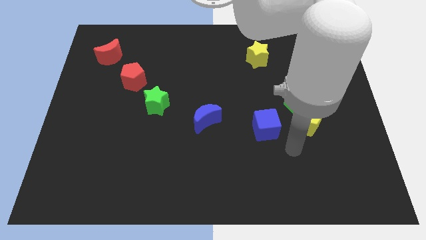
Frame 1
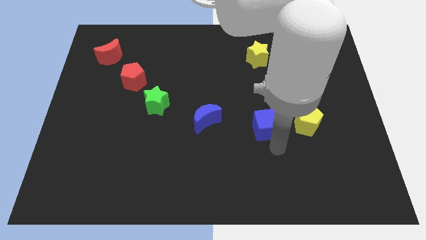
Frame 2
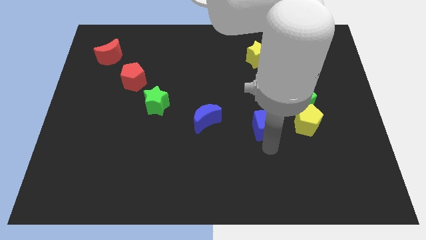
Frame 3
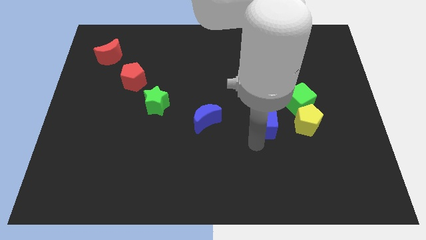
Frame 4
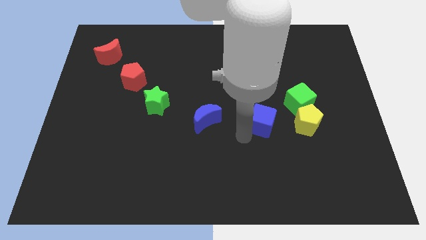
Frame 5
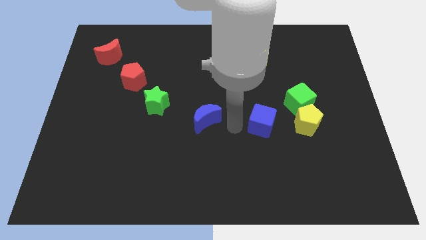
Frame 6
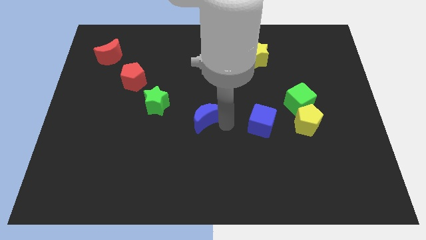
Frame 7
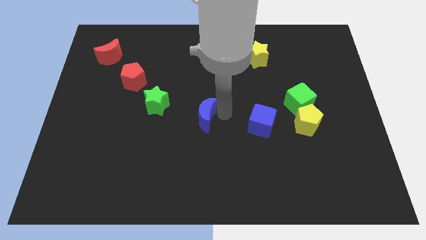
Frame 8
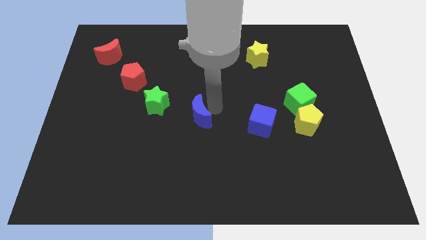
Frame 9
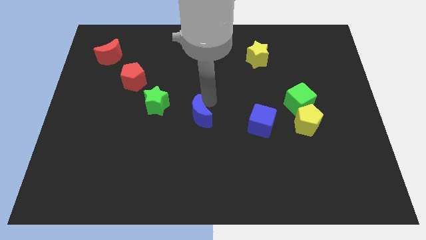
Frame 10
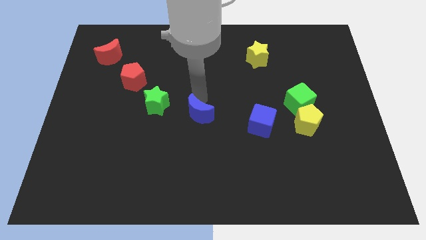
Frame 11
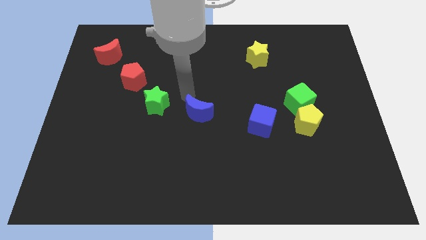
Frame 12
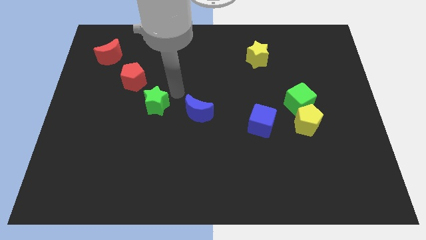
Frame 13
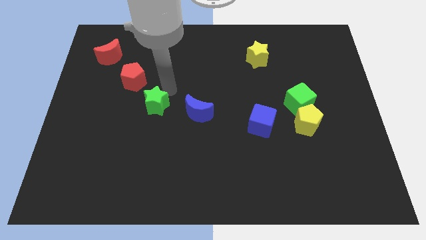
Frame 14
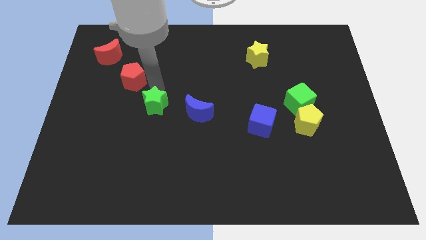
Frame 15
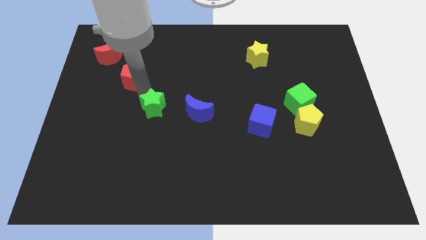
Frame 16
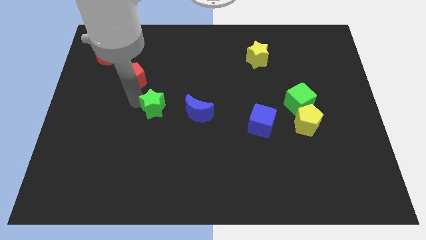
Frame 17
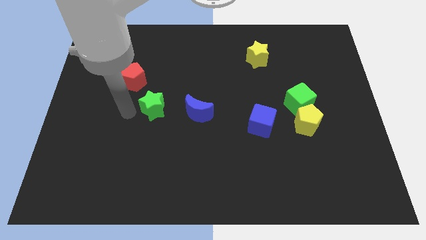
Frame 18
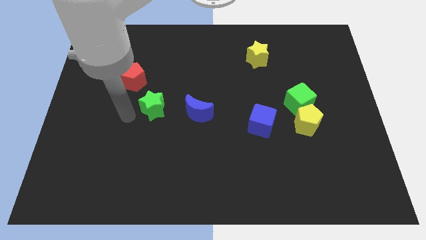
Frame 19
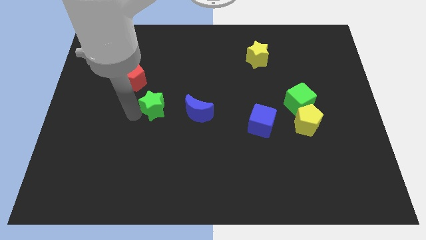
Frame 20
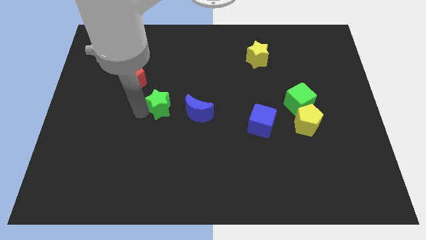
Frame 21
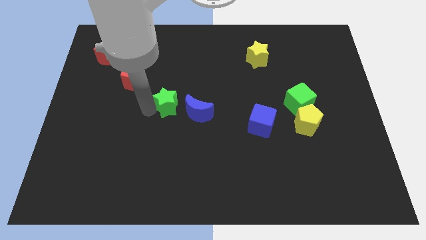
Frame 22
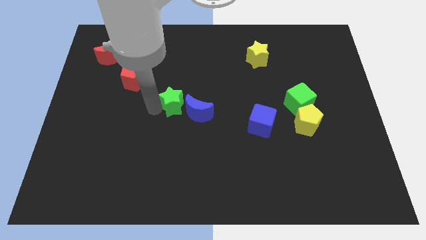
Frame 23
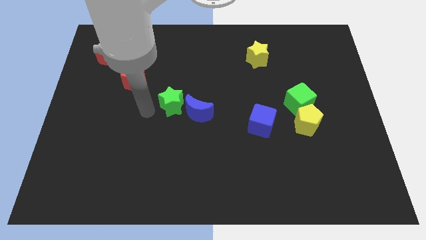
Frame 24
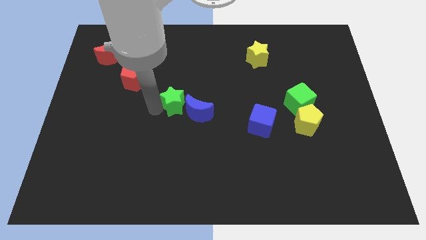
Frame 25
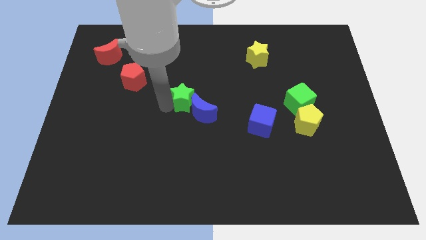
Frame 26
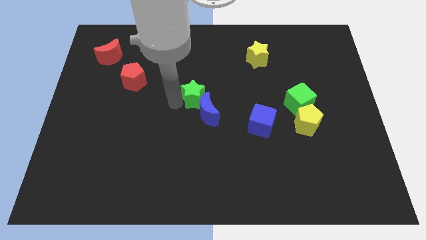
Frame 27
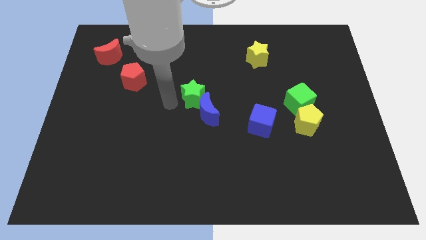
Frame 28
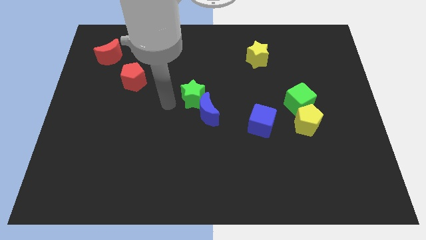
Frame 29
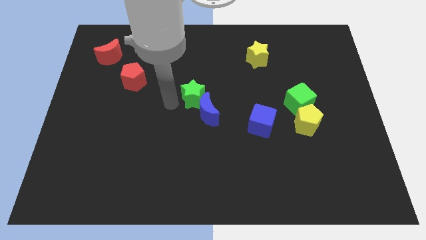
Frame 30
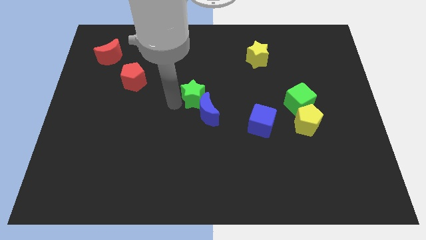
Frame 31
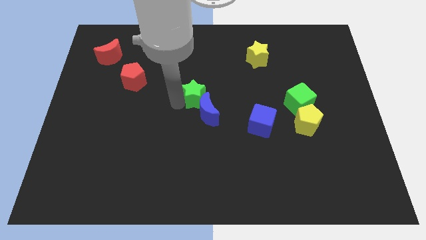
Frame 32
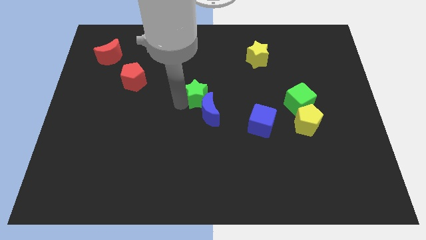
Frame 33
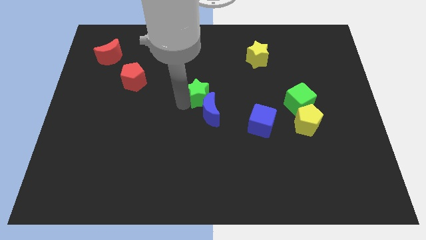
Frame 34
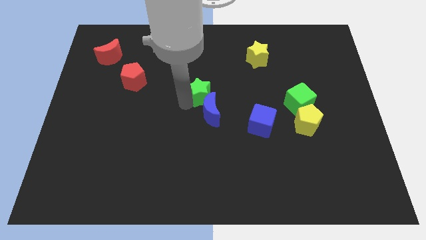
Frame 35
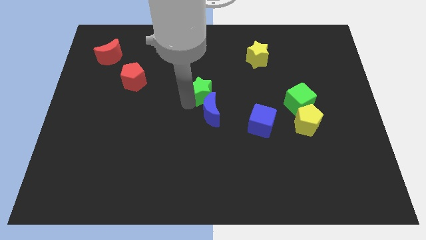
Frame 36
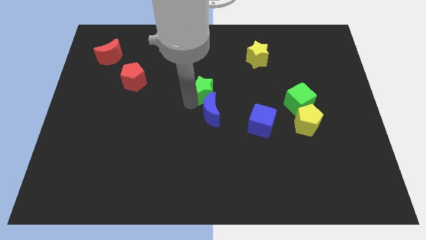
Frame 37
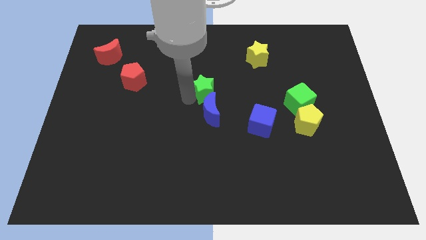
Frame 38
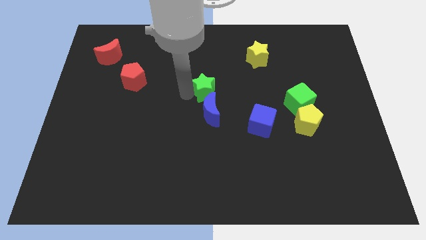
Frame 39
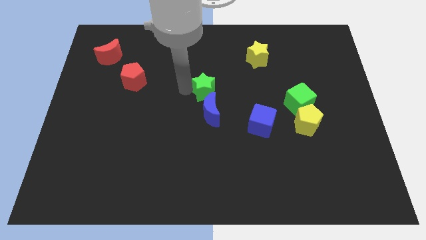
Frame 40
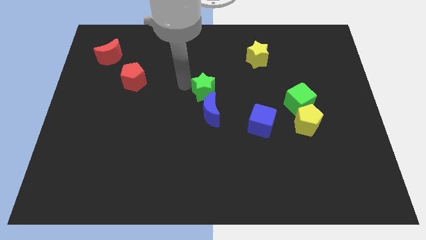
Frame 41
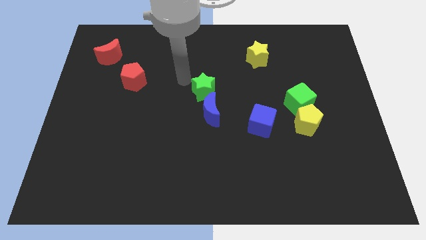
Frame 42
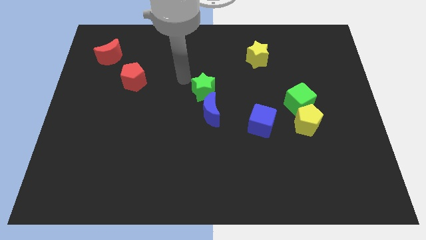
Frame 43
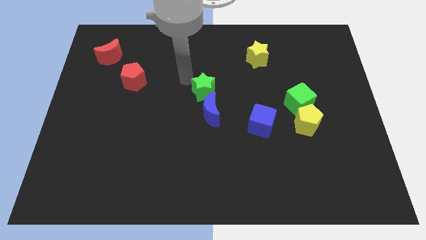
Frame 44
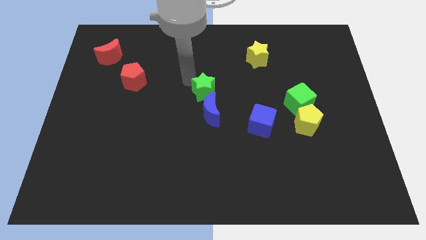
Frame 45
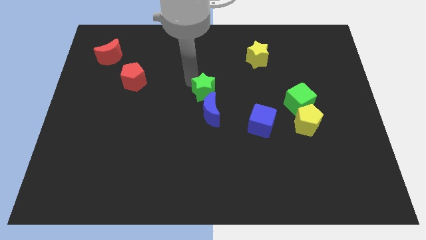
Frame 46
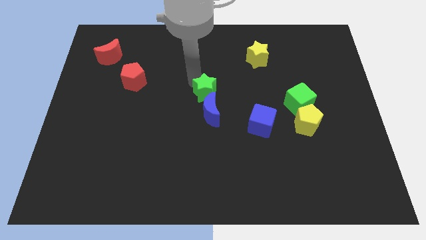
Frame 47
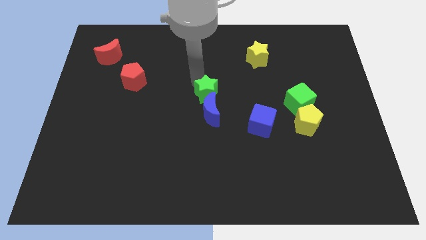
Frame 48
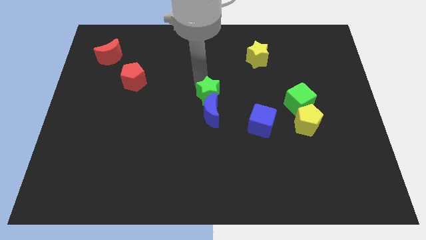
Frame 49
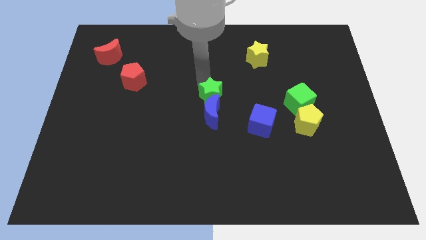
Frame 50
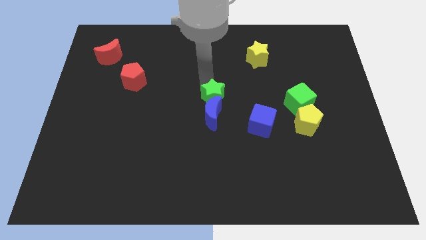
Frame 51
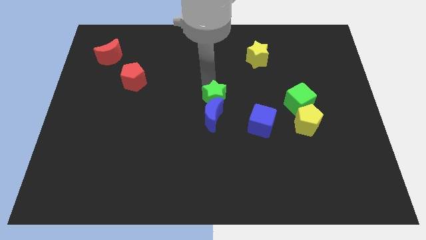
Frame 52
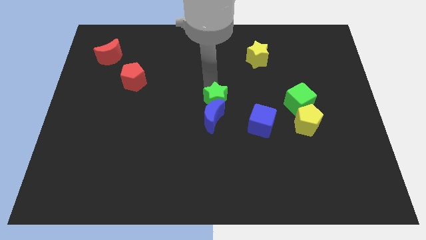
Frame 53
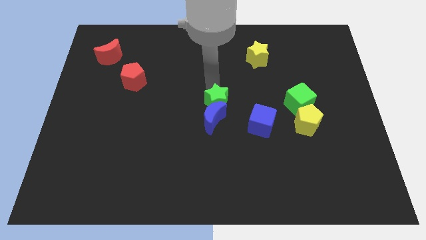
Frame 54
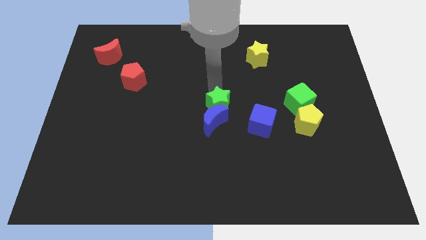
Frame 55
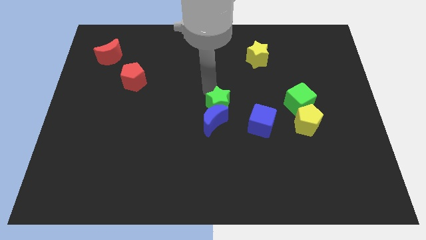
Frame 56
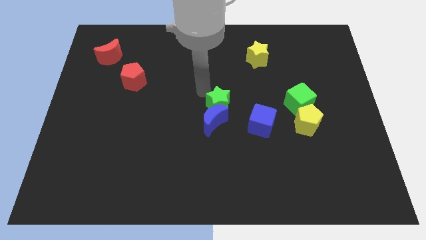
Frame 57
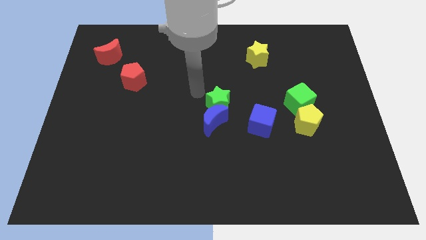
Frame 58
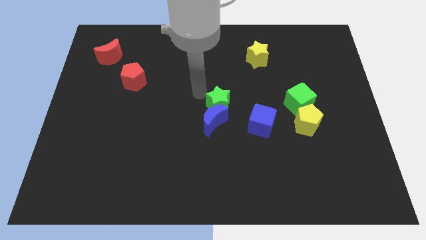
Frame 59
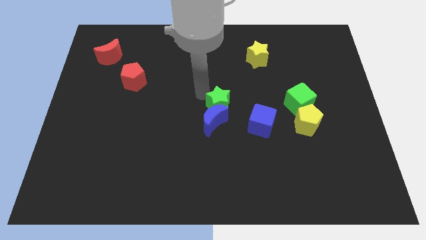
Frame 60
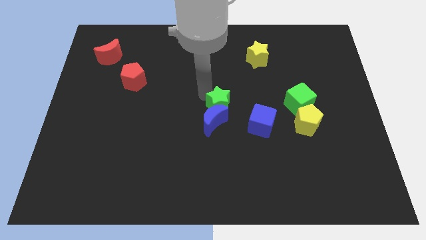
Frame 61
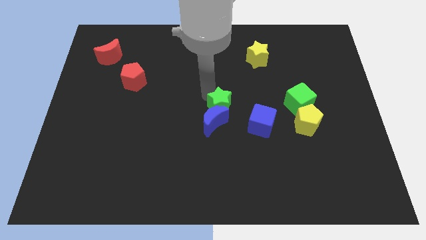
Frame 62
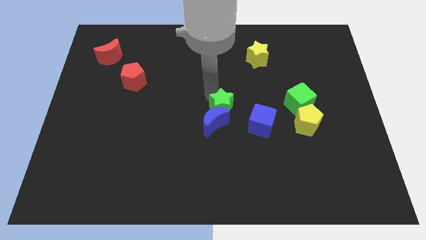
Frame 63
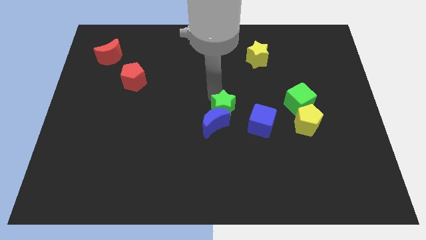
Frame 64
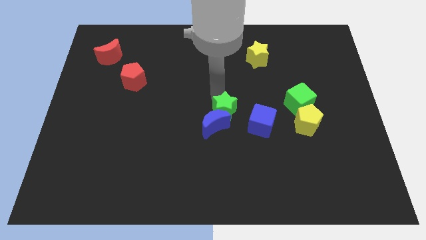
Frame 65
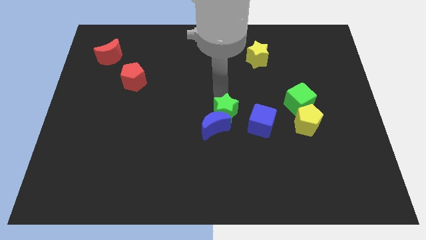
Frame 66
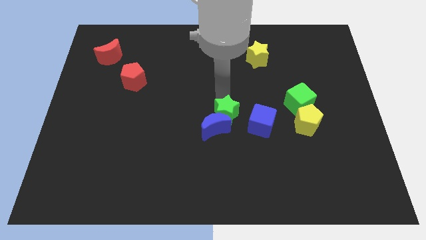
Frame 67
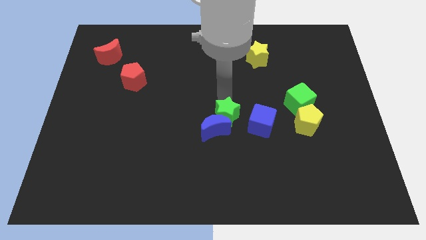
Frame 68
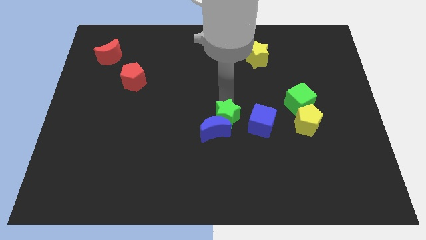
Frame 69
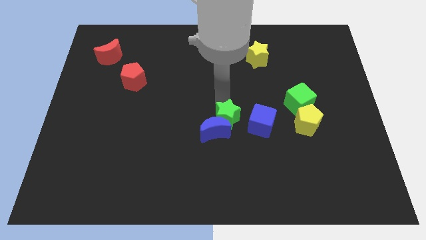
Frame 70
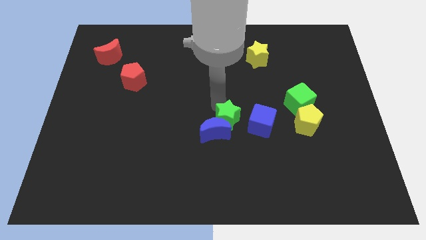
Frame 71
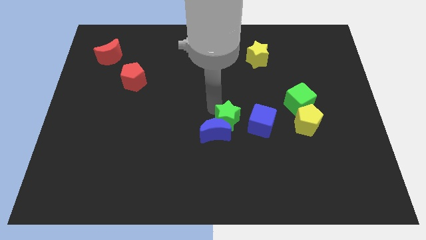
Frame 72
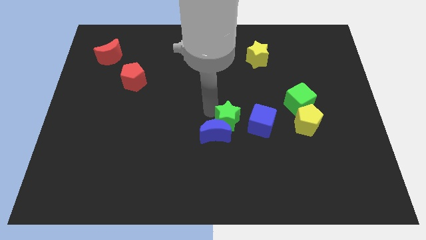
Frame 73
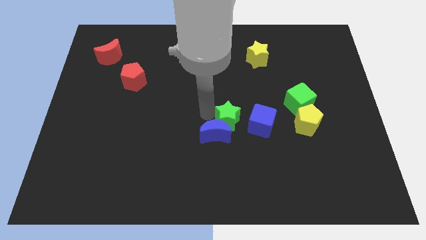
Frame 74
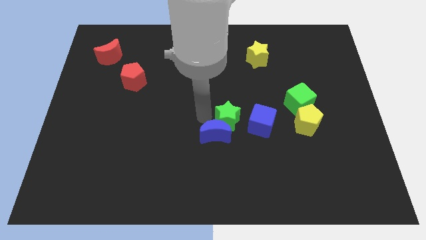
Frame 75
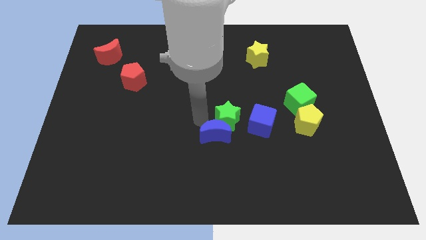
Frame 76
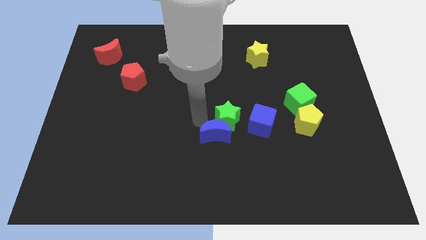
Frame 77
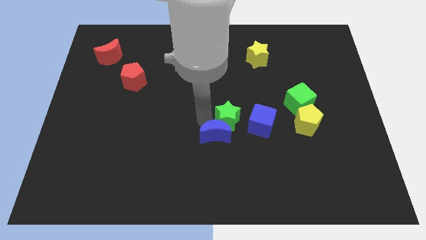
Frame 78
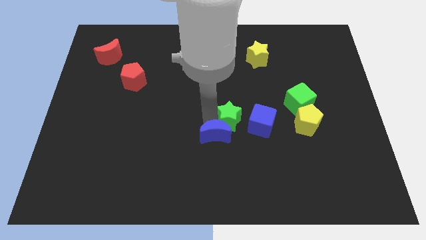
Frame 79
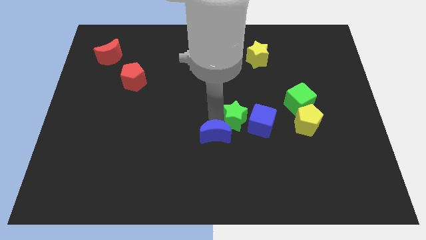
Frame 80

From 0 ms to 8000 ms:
slide the green star next to the blue cube
